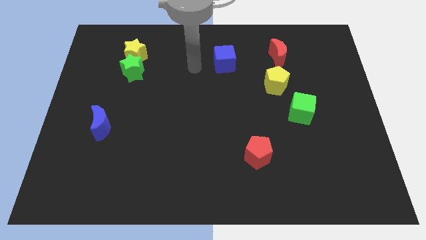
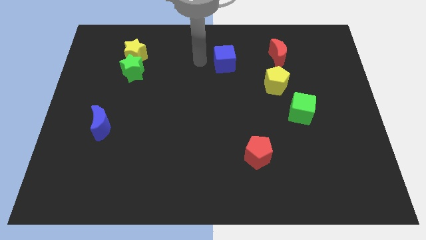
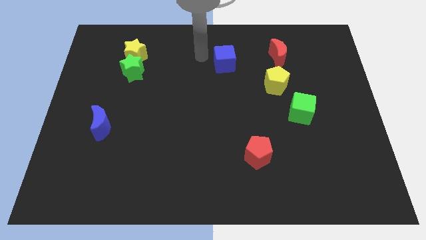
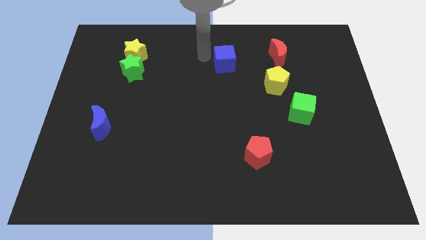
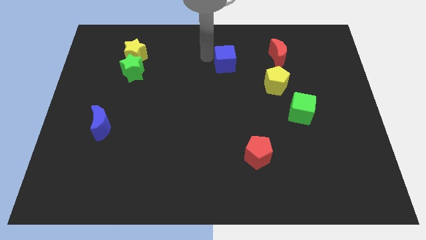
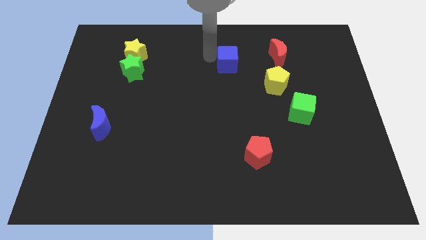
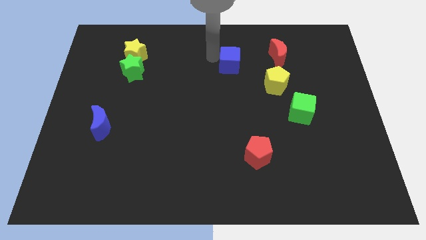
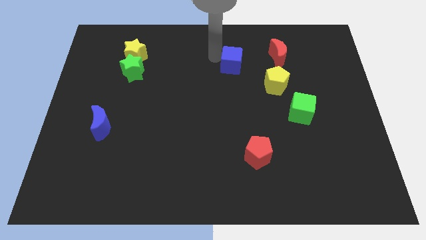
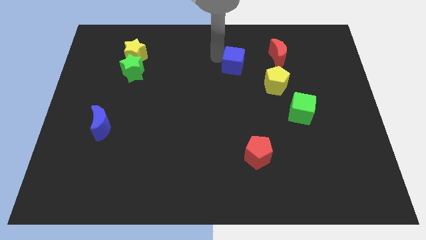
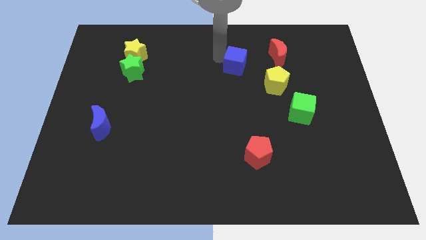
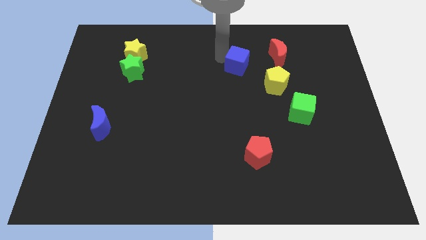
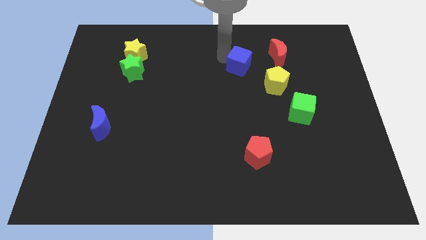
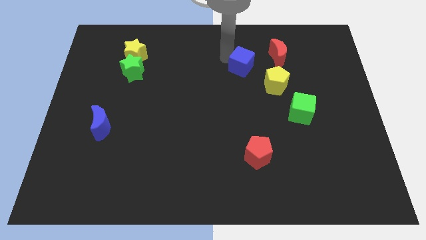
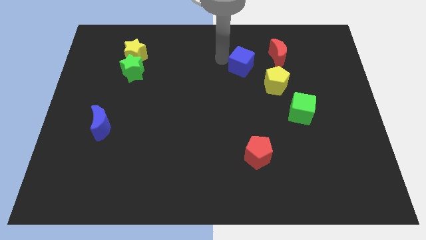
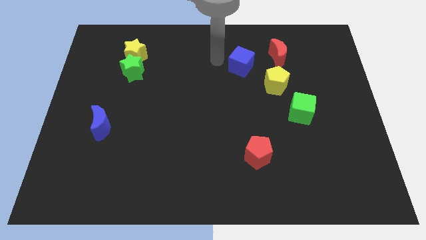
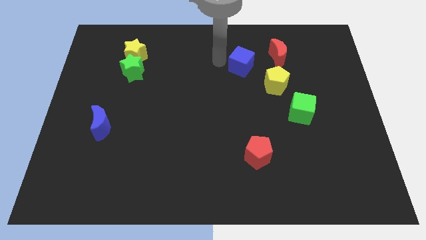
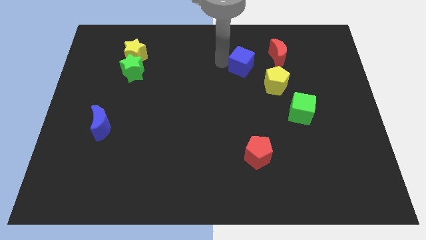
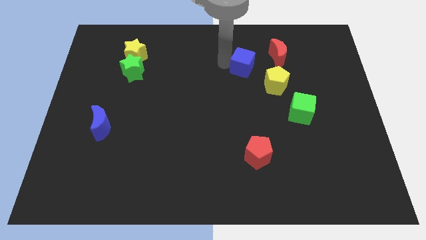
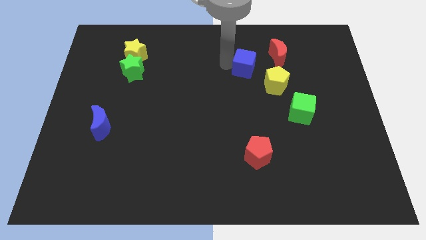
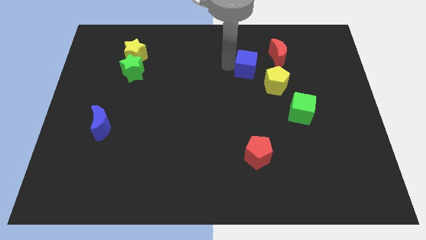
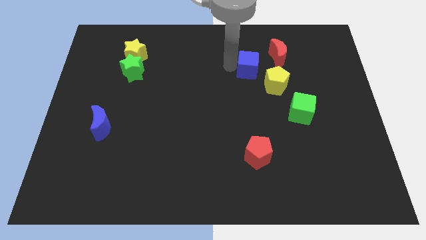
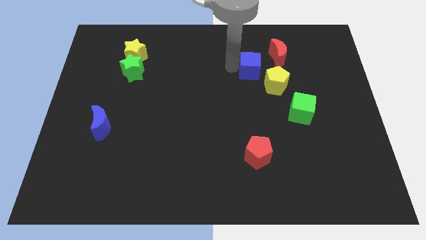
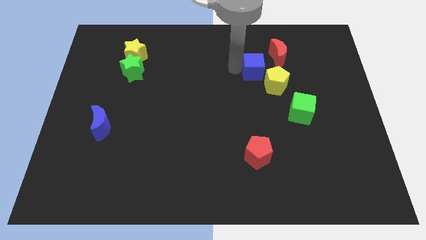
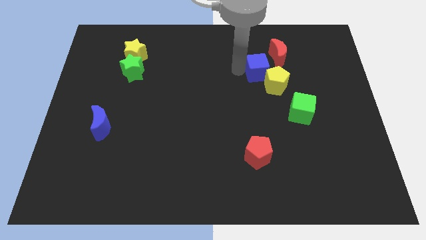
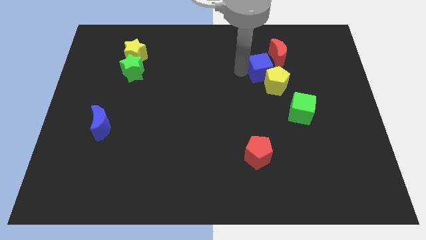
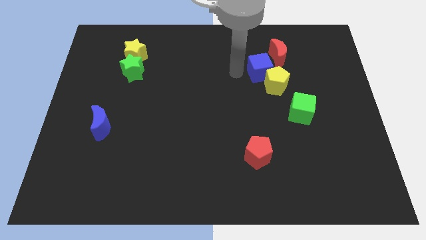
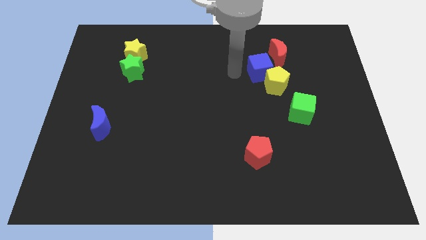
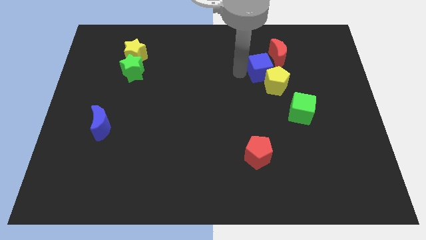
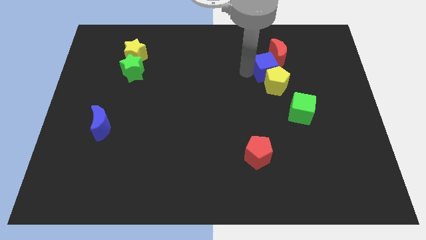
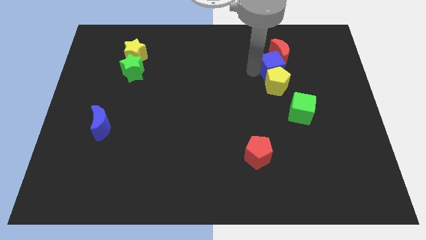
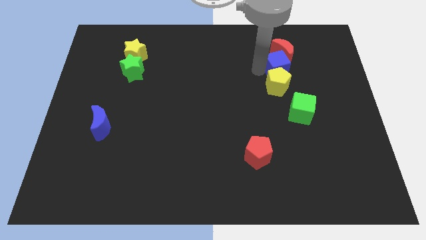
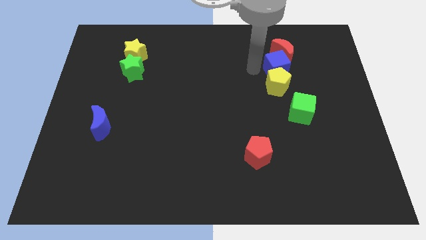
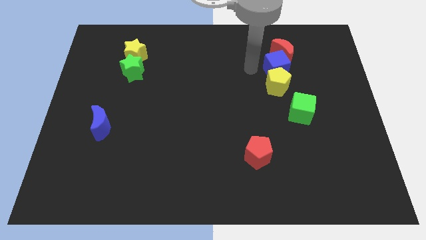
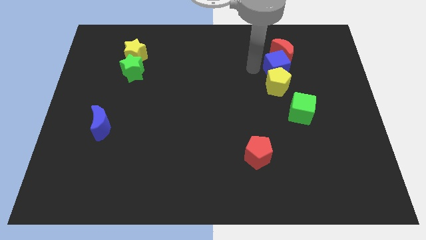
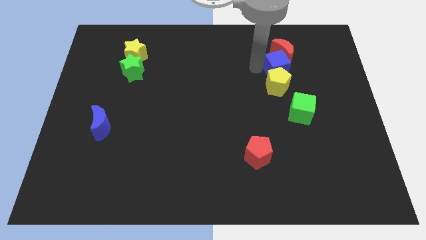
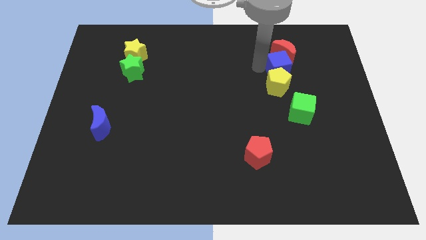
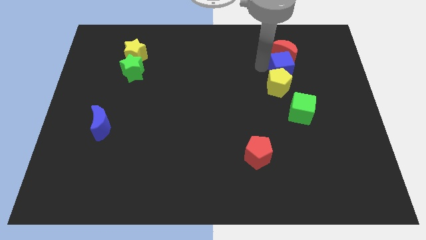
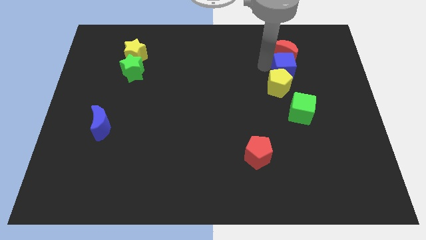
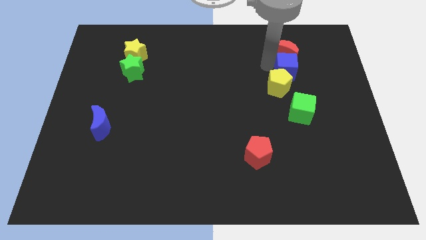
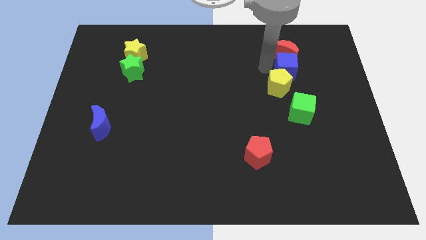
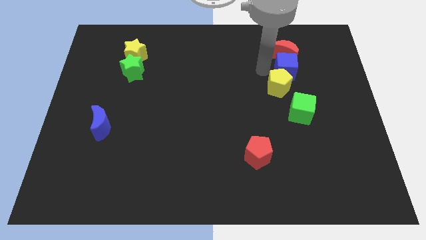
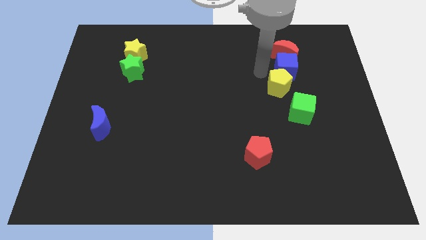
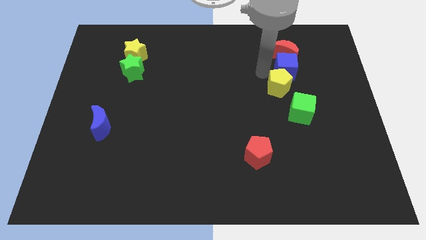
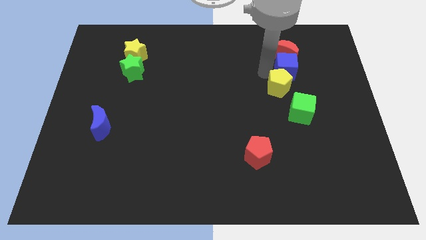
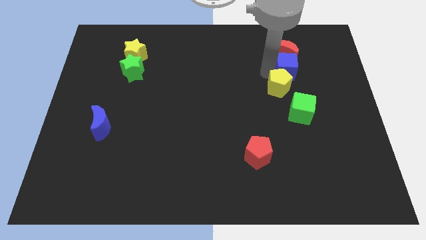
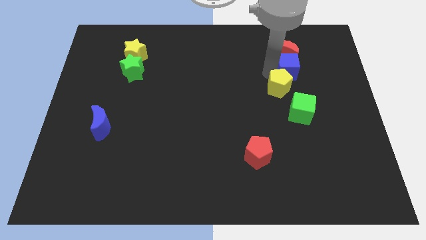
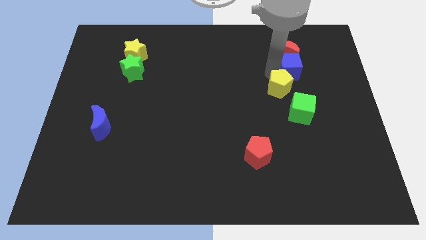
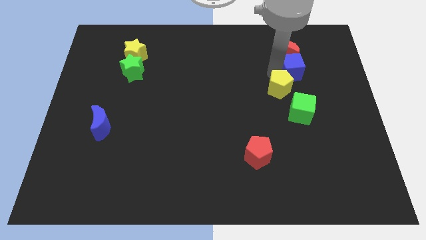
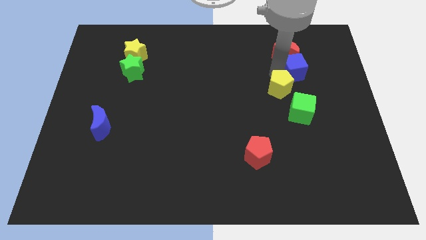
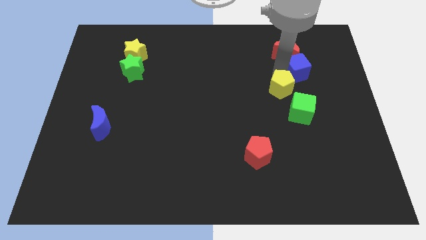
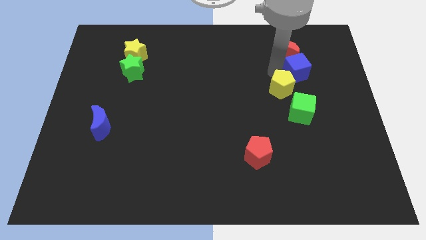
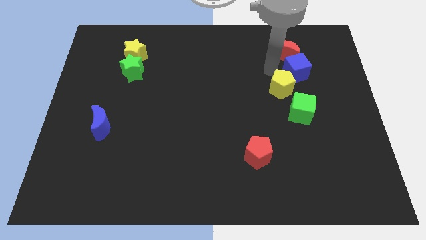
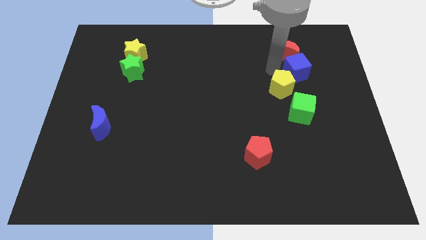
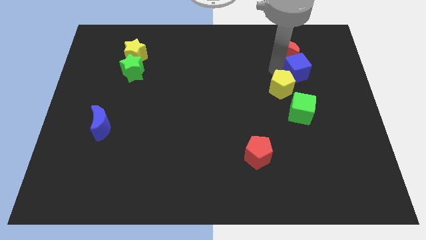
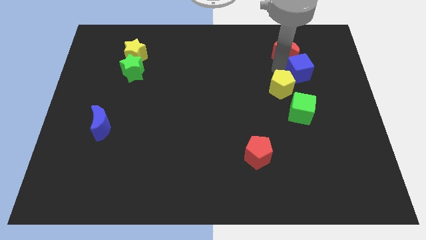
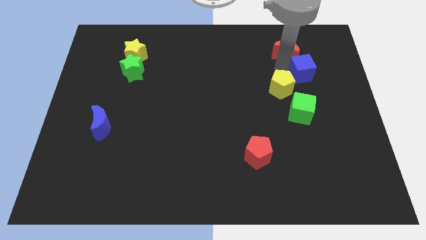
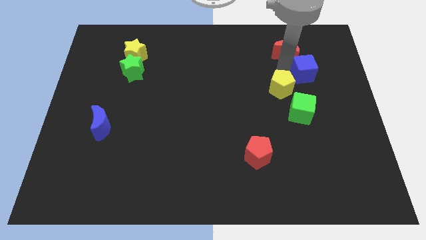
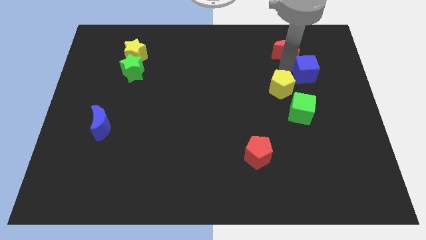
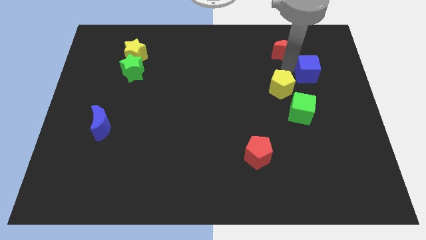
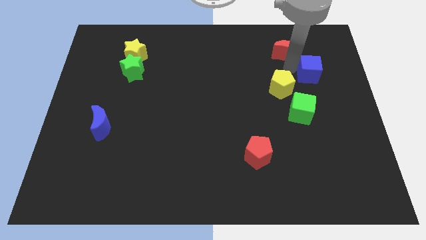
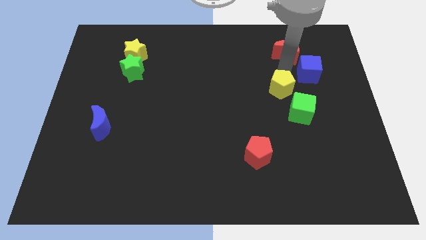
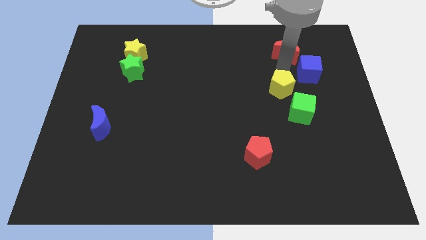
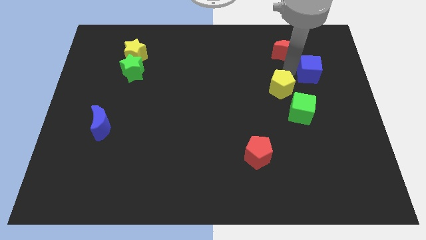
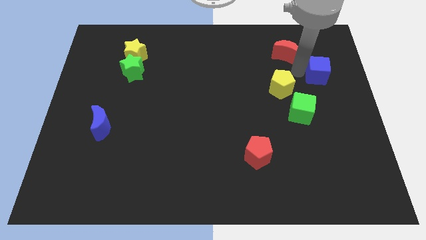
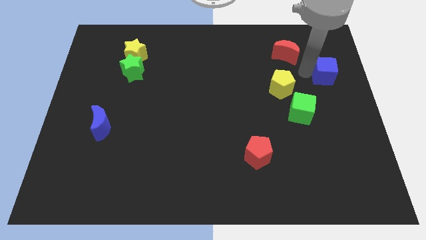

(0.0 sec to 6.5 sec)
move the blue cube to the right side of the board
